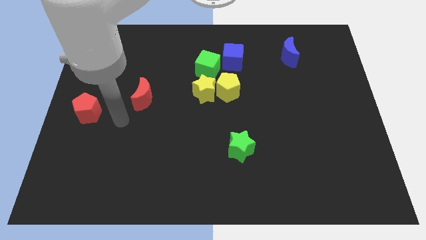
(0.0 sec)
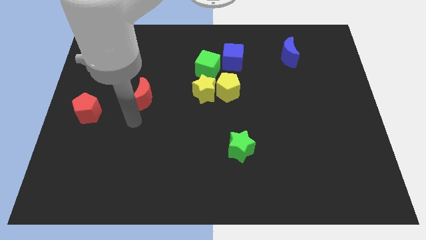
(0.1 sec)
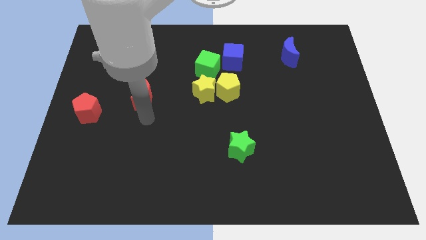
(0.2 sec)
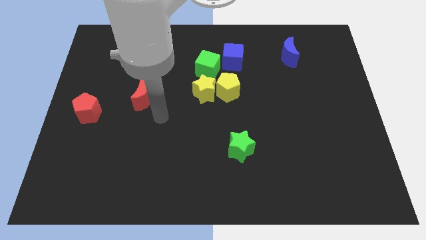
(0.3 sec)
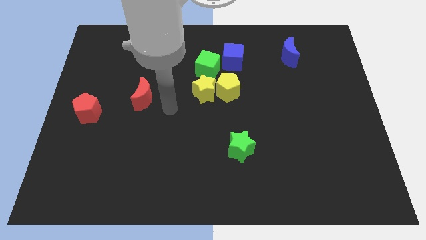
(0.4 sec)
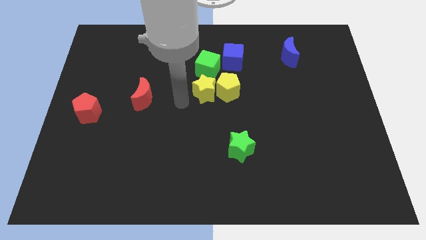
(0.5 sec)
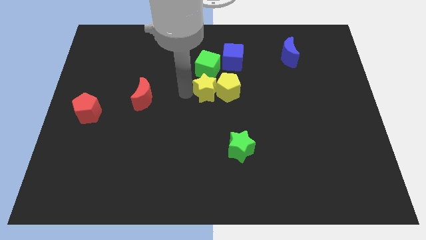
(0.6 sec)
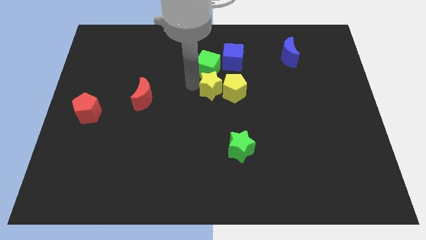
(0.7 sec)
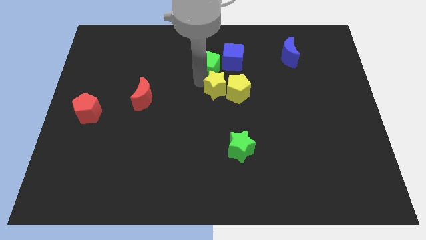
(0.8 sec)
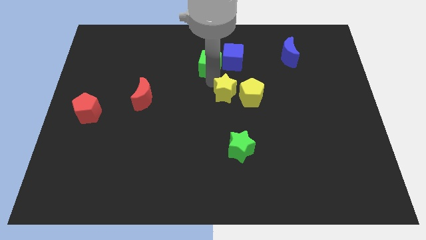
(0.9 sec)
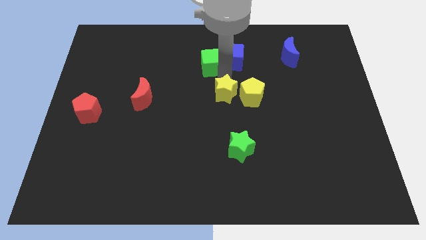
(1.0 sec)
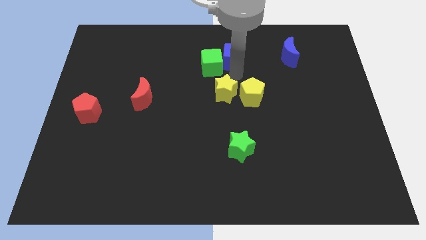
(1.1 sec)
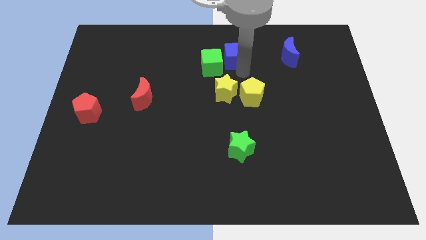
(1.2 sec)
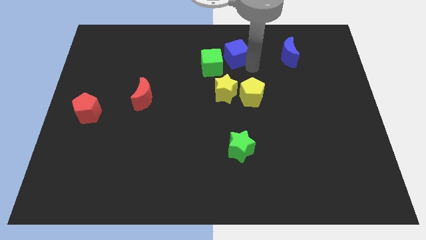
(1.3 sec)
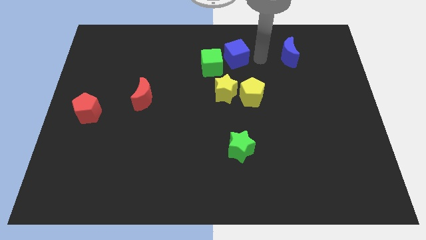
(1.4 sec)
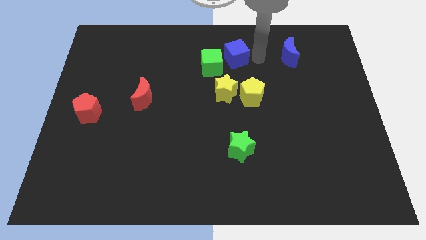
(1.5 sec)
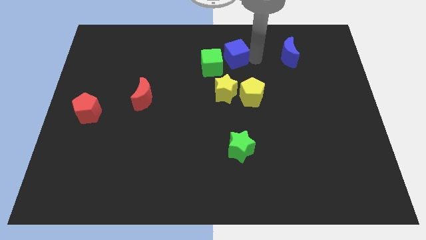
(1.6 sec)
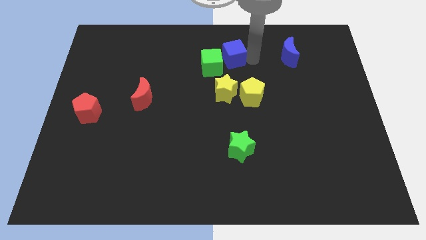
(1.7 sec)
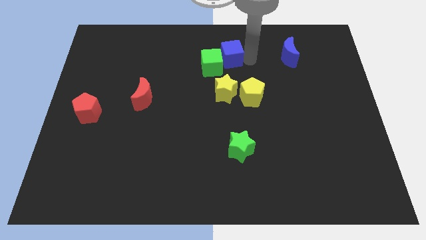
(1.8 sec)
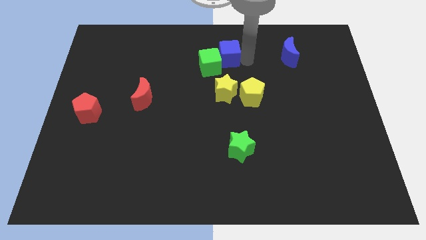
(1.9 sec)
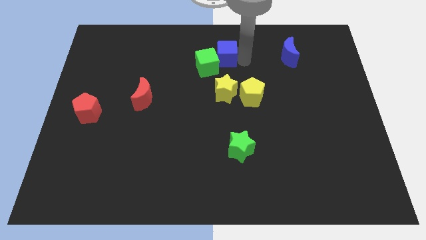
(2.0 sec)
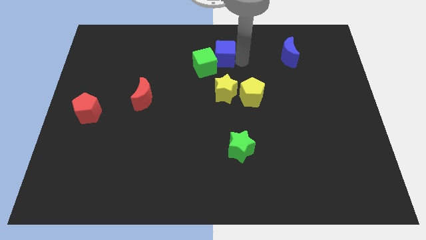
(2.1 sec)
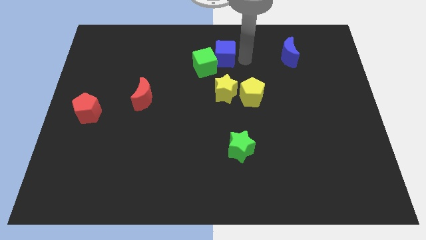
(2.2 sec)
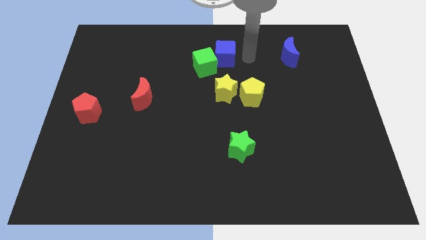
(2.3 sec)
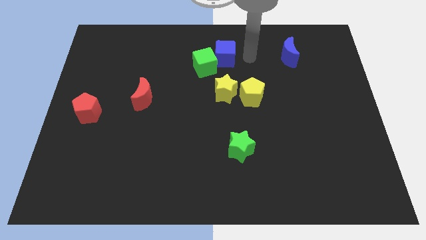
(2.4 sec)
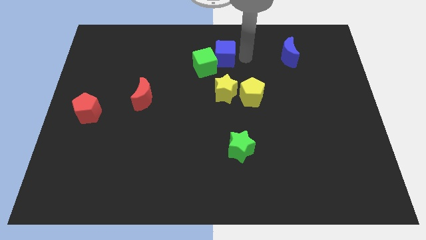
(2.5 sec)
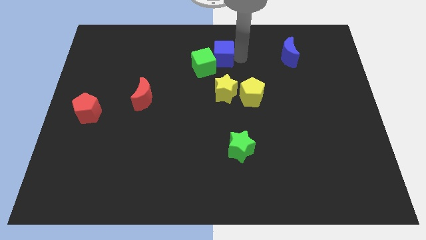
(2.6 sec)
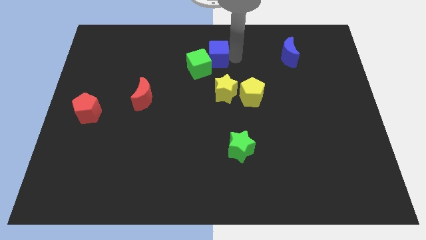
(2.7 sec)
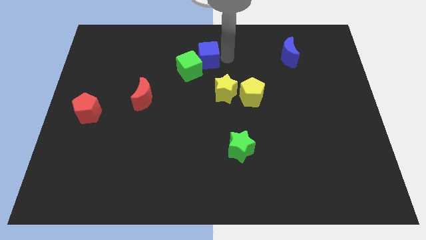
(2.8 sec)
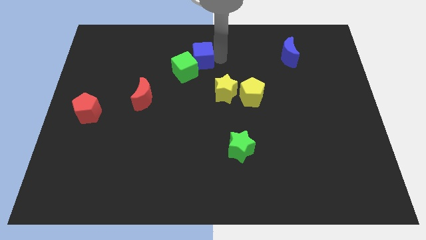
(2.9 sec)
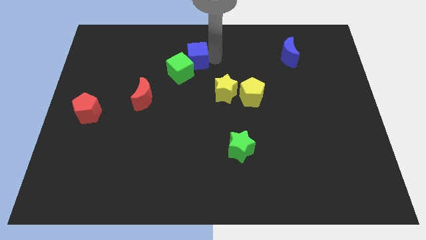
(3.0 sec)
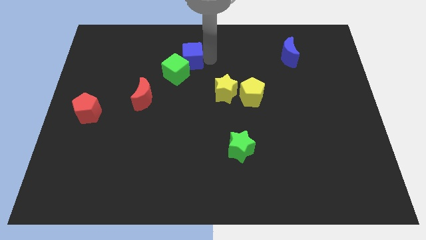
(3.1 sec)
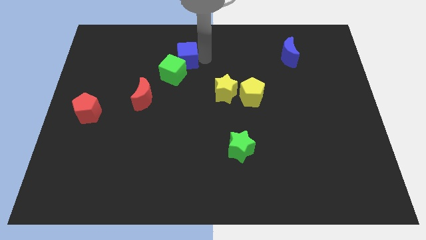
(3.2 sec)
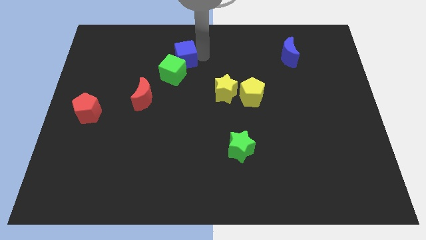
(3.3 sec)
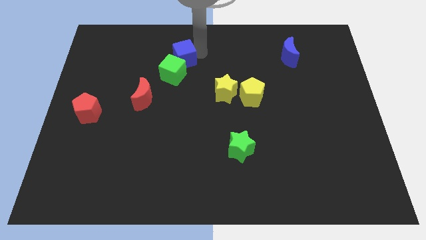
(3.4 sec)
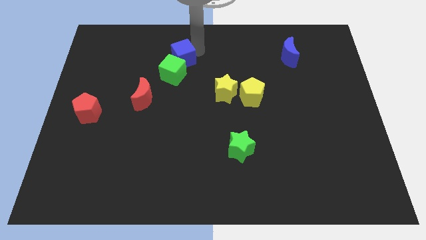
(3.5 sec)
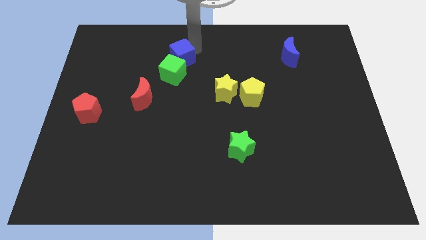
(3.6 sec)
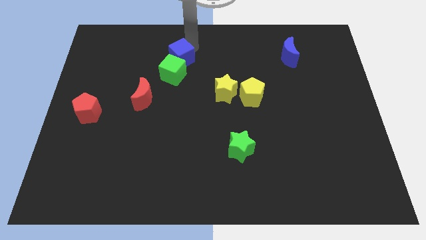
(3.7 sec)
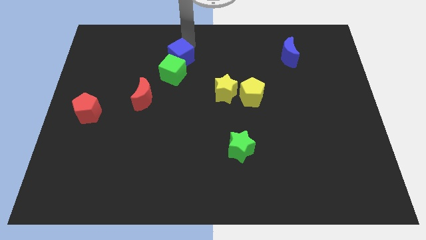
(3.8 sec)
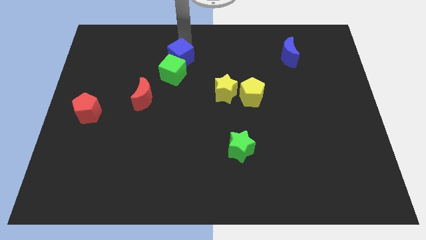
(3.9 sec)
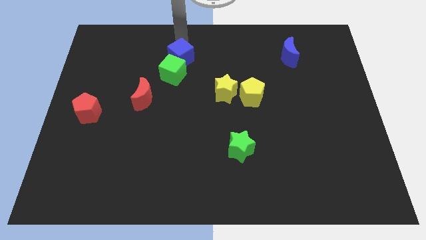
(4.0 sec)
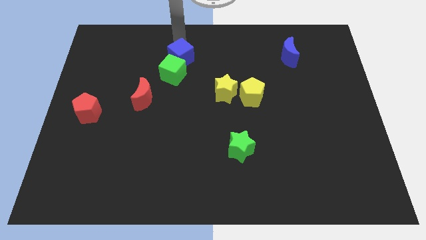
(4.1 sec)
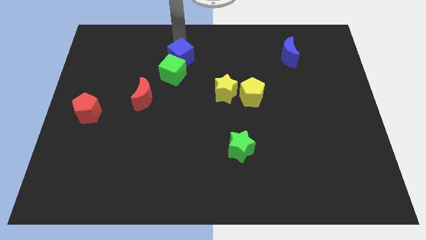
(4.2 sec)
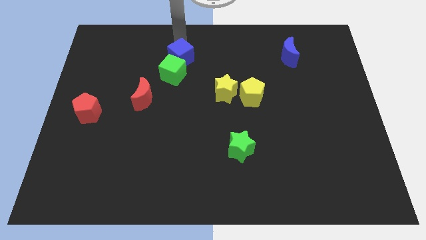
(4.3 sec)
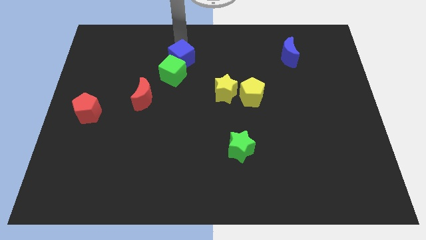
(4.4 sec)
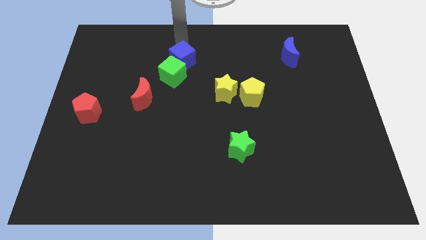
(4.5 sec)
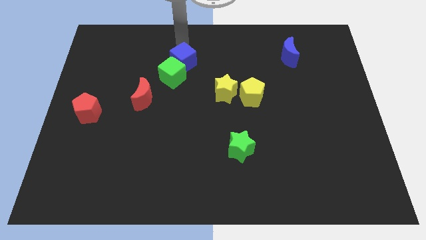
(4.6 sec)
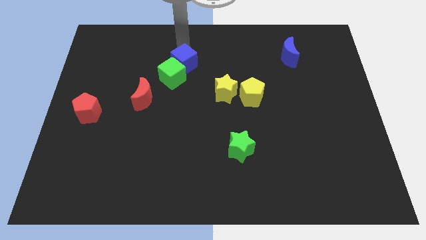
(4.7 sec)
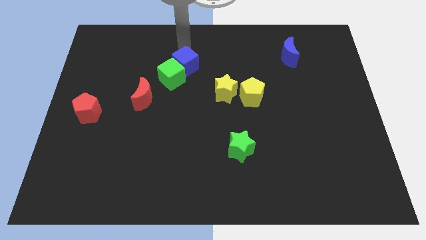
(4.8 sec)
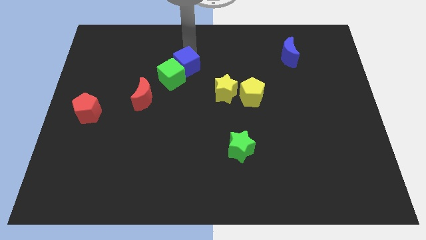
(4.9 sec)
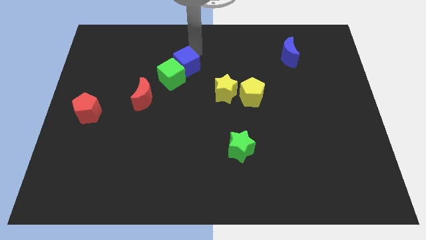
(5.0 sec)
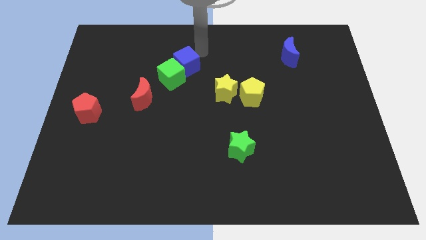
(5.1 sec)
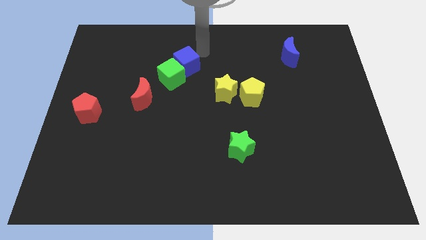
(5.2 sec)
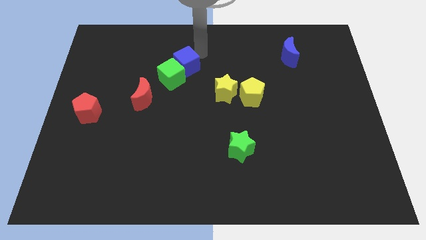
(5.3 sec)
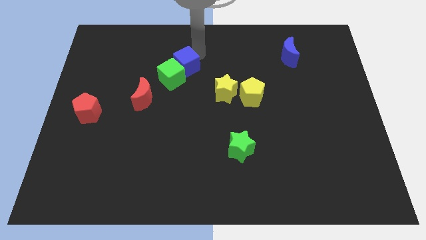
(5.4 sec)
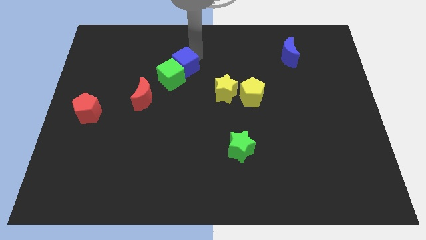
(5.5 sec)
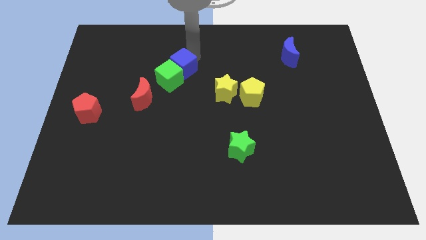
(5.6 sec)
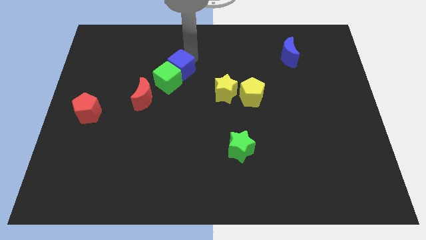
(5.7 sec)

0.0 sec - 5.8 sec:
move the blue cube diagonally up and to the right of the red moon
